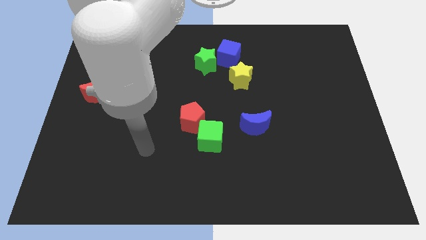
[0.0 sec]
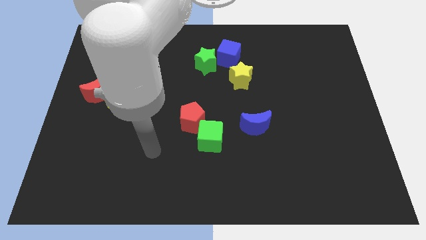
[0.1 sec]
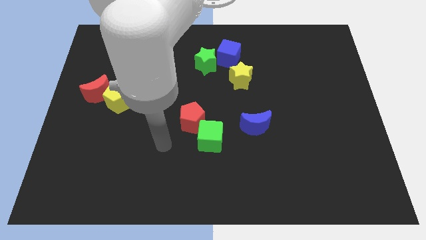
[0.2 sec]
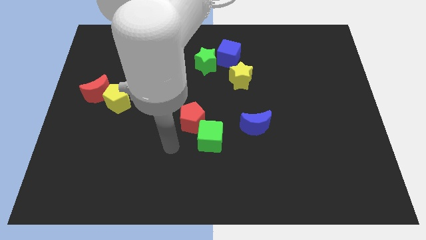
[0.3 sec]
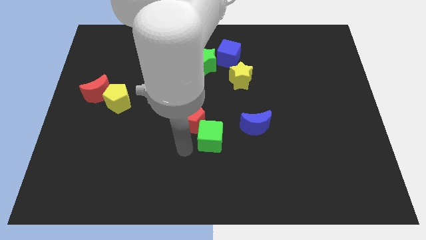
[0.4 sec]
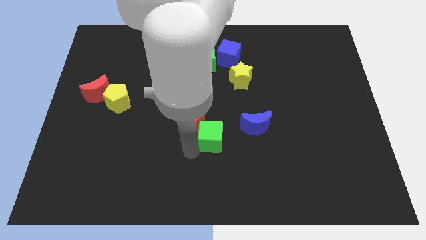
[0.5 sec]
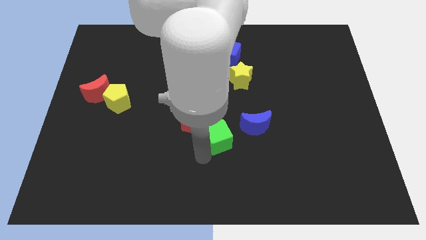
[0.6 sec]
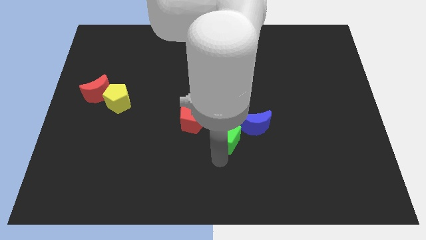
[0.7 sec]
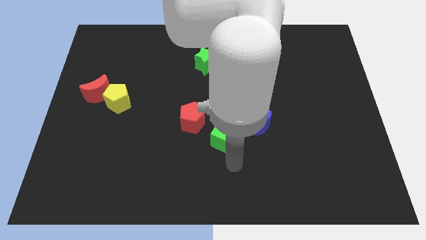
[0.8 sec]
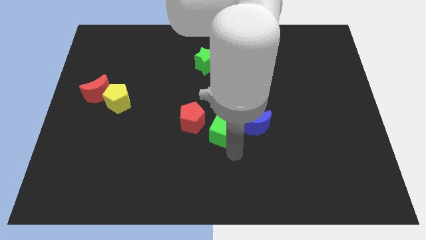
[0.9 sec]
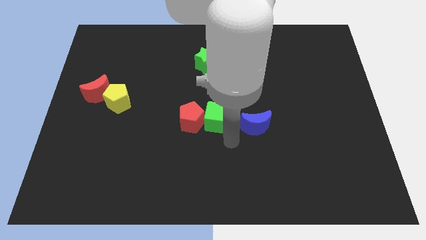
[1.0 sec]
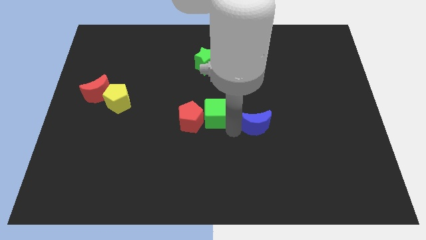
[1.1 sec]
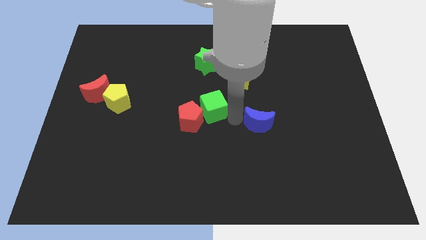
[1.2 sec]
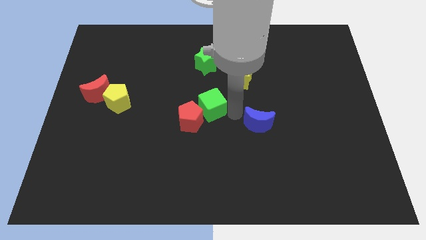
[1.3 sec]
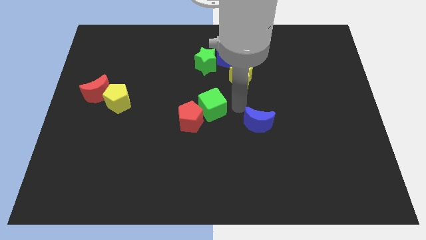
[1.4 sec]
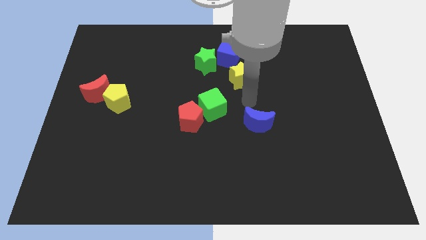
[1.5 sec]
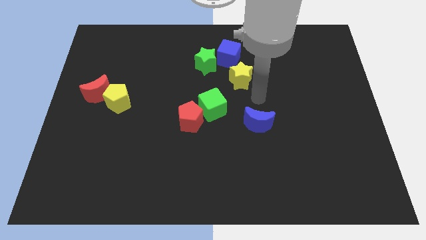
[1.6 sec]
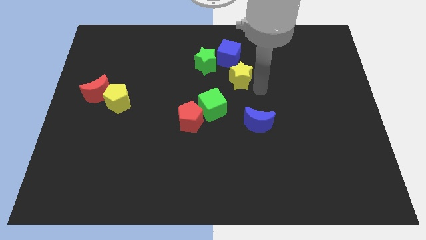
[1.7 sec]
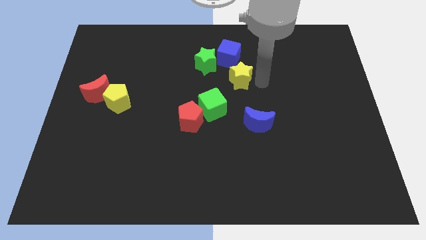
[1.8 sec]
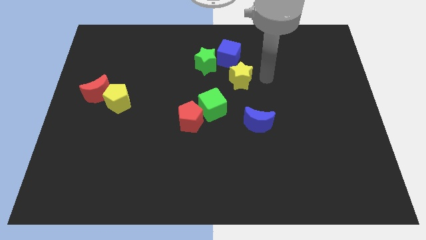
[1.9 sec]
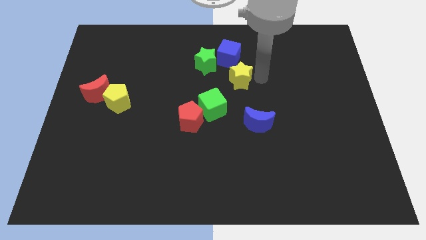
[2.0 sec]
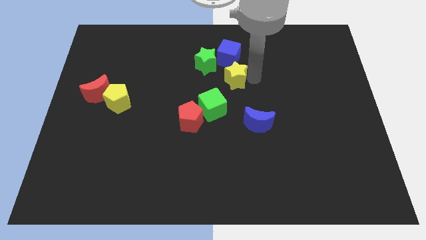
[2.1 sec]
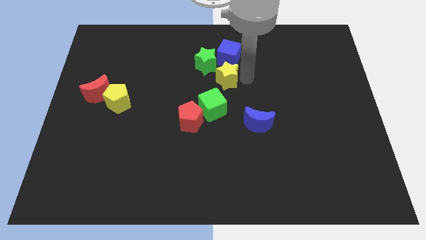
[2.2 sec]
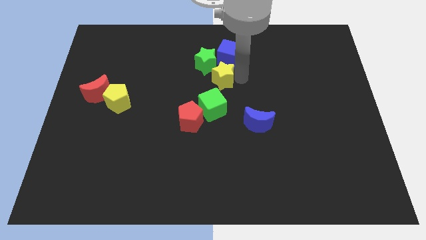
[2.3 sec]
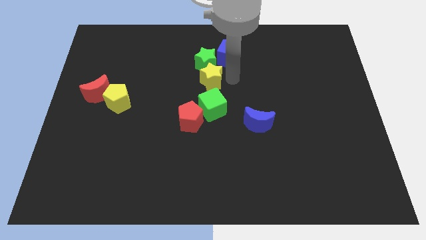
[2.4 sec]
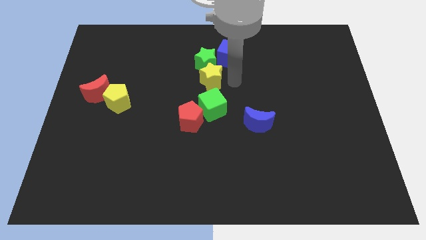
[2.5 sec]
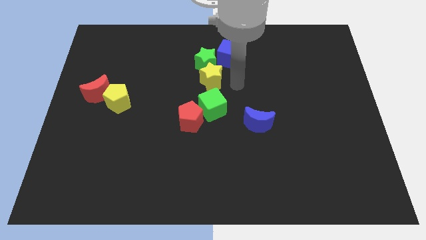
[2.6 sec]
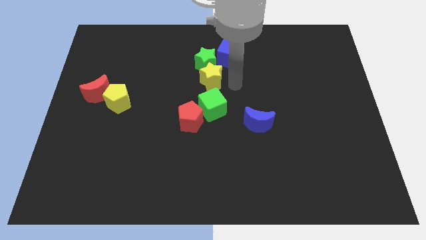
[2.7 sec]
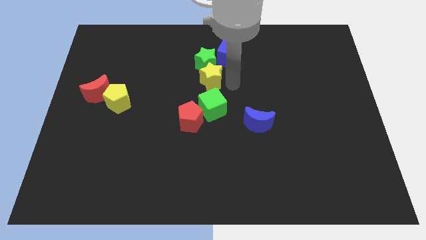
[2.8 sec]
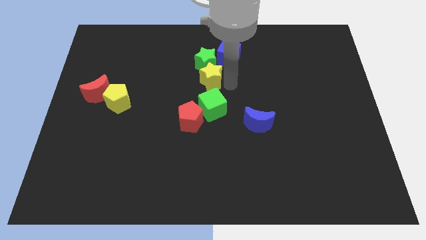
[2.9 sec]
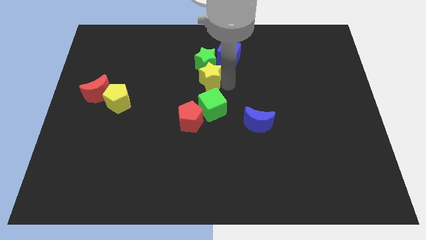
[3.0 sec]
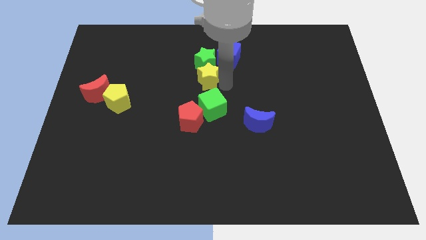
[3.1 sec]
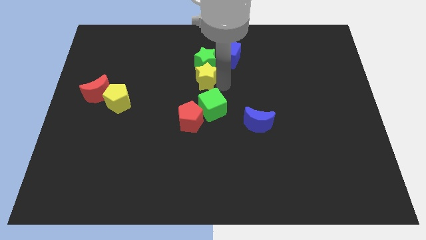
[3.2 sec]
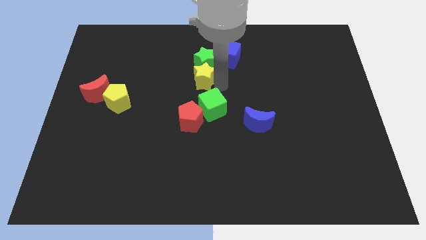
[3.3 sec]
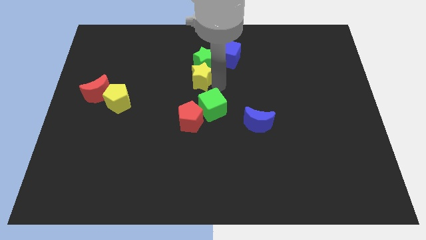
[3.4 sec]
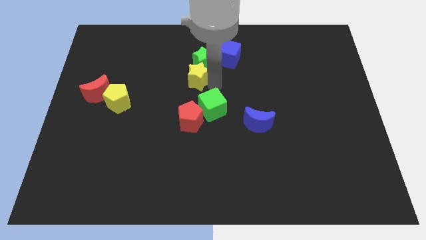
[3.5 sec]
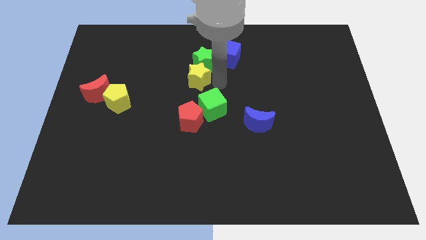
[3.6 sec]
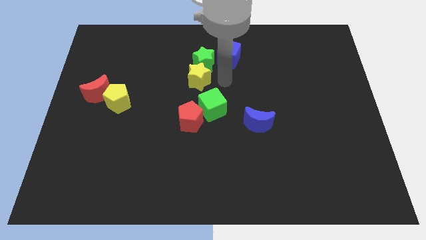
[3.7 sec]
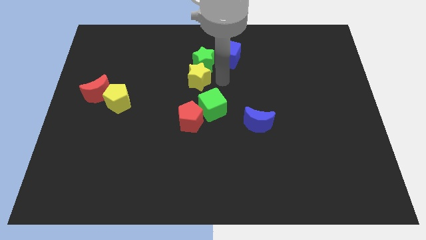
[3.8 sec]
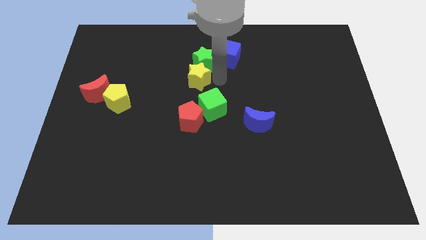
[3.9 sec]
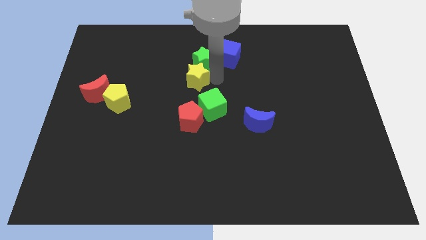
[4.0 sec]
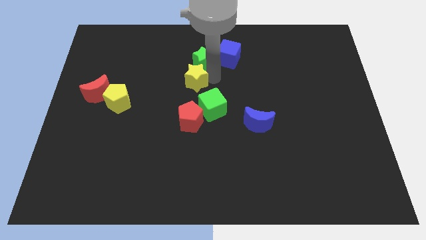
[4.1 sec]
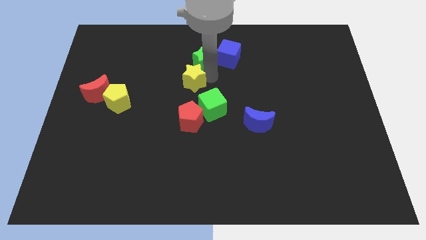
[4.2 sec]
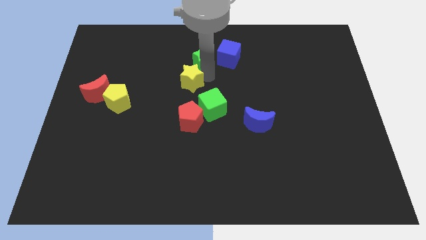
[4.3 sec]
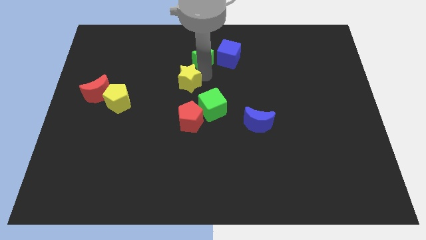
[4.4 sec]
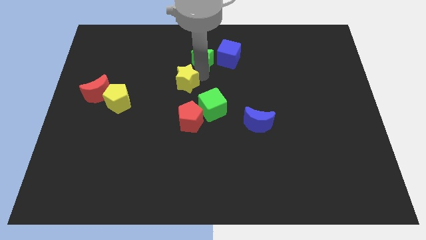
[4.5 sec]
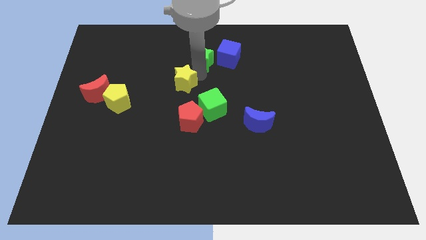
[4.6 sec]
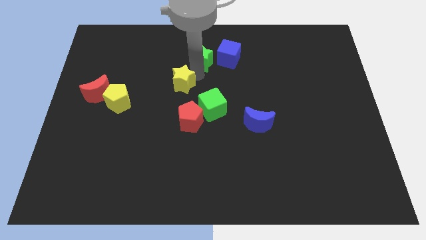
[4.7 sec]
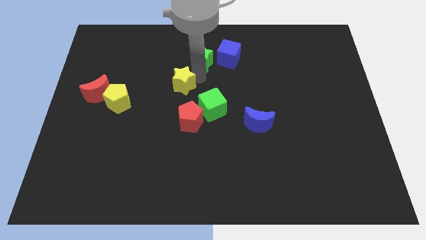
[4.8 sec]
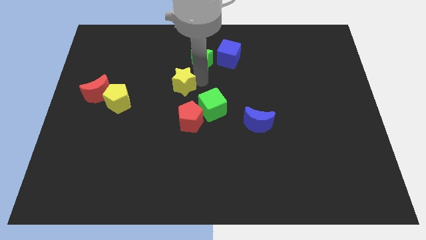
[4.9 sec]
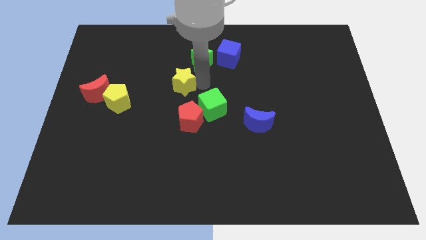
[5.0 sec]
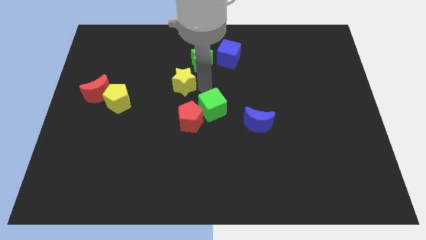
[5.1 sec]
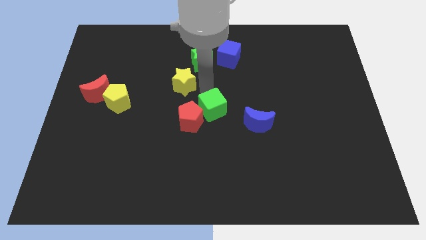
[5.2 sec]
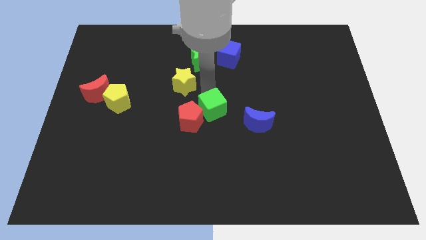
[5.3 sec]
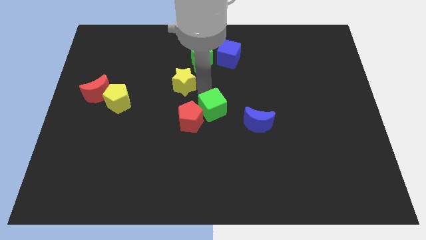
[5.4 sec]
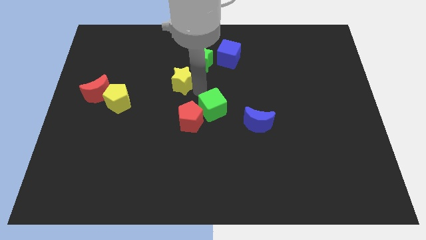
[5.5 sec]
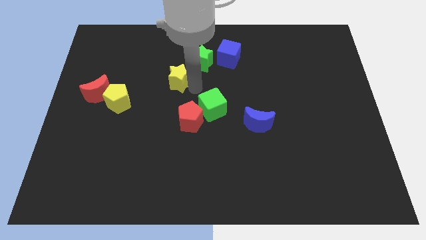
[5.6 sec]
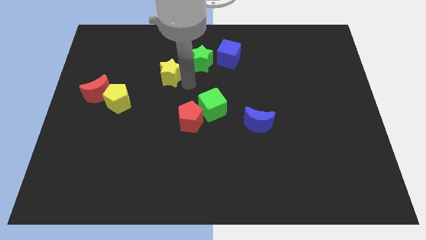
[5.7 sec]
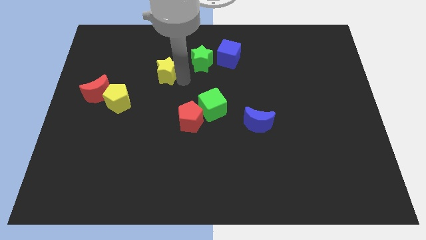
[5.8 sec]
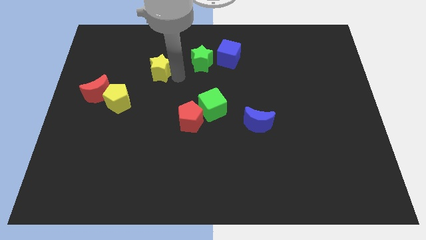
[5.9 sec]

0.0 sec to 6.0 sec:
slide the yellow star left

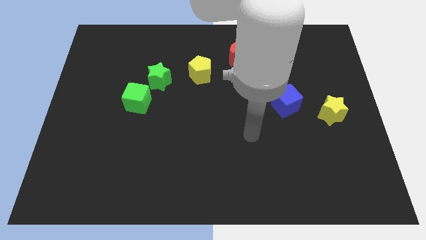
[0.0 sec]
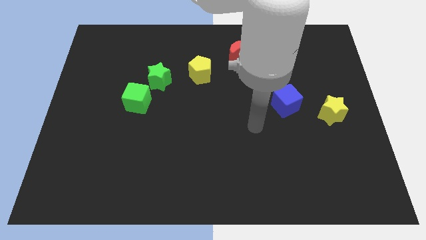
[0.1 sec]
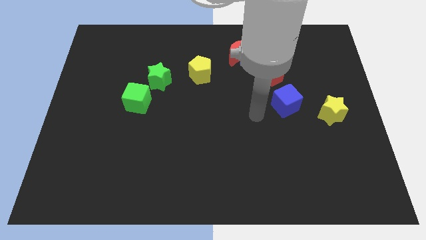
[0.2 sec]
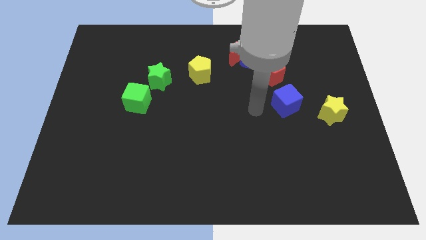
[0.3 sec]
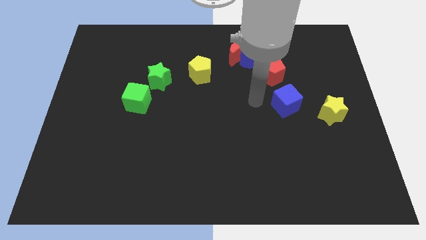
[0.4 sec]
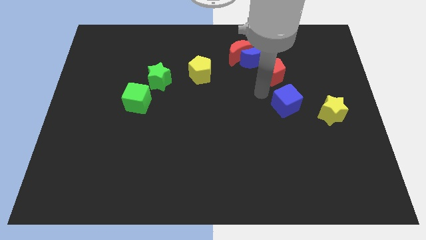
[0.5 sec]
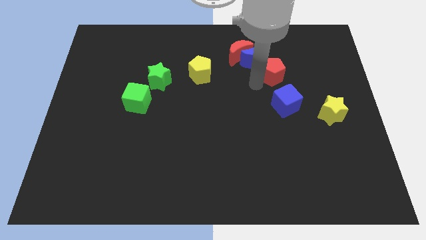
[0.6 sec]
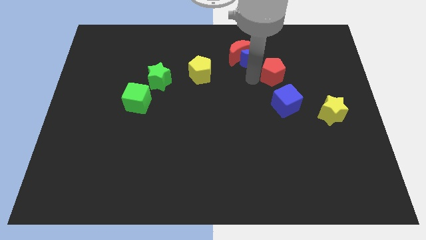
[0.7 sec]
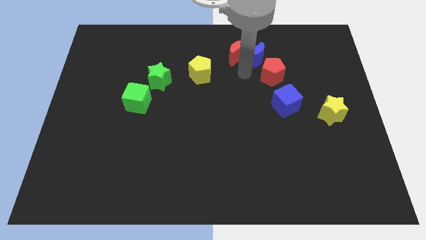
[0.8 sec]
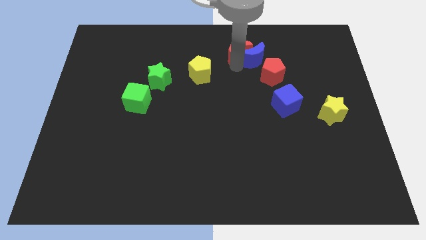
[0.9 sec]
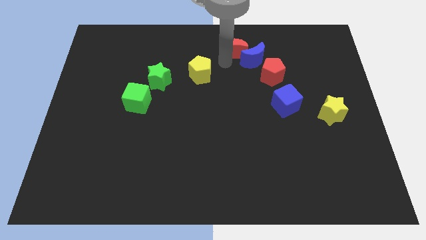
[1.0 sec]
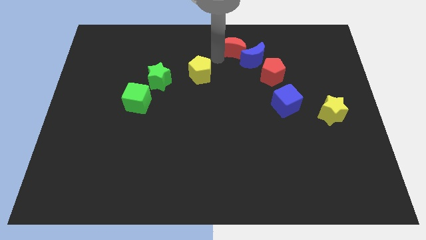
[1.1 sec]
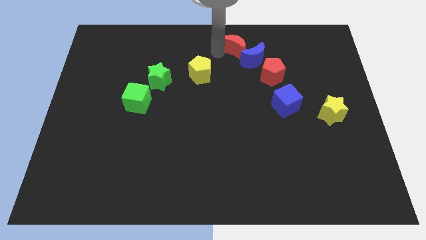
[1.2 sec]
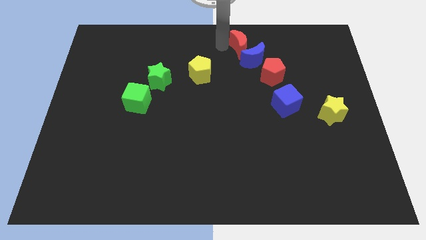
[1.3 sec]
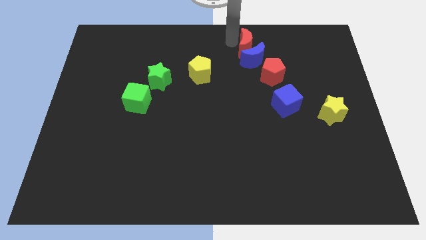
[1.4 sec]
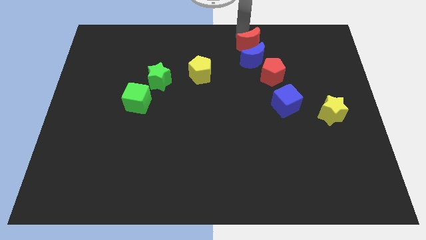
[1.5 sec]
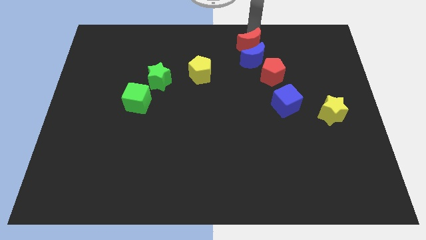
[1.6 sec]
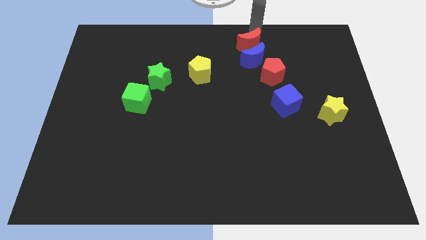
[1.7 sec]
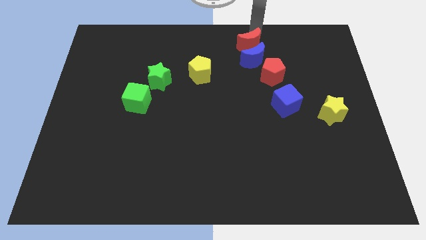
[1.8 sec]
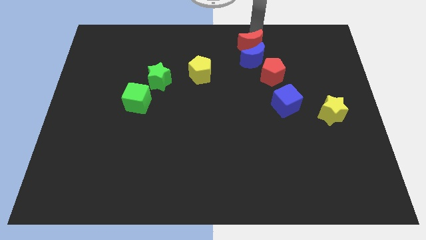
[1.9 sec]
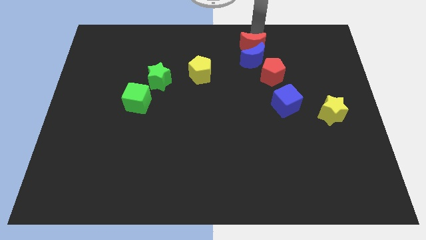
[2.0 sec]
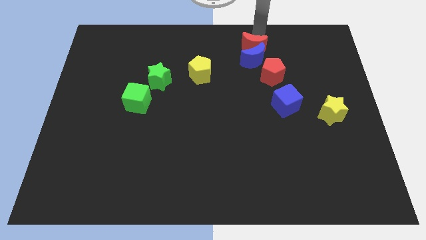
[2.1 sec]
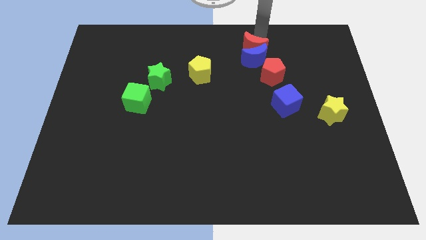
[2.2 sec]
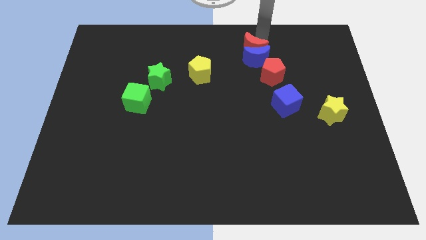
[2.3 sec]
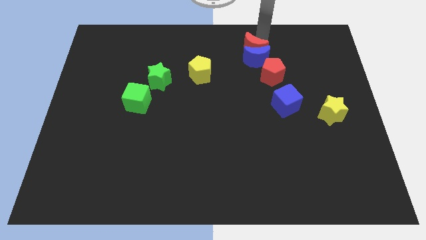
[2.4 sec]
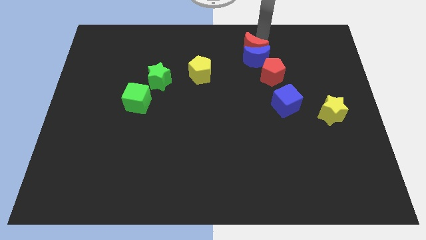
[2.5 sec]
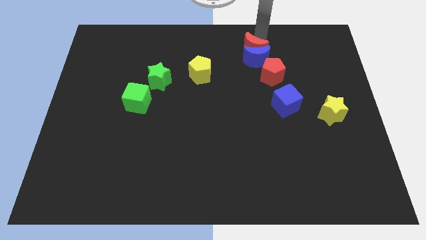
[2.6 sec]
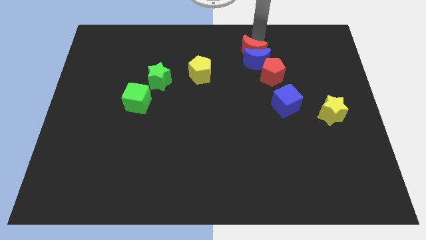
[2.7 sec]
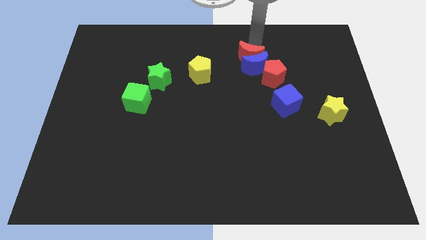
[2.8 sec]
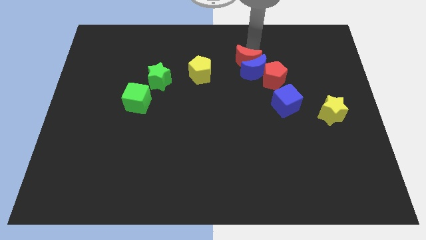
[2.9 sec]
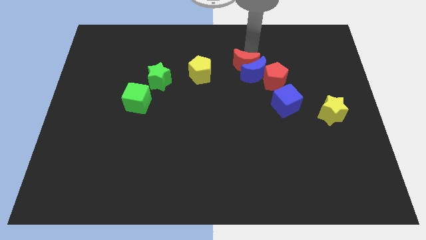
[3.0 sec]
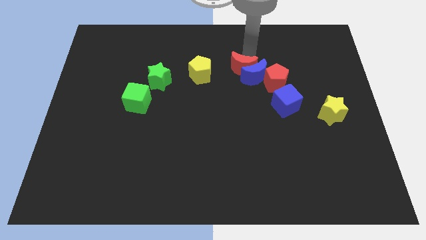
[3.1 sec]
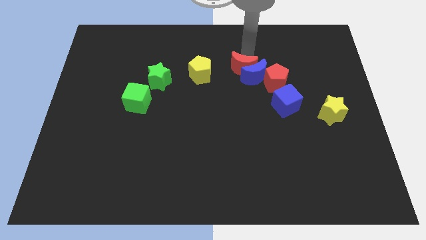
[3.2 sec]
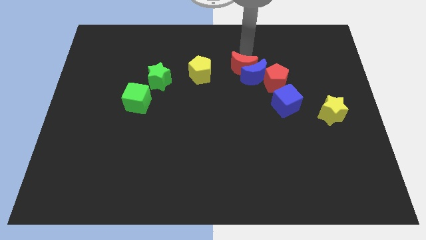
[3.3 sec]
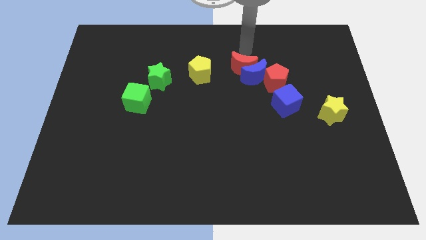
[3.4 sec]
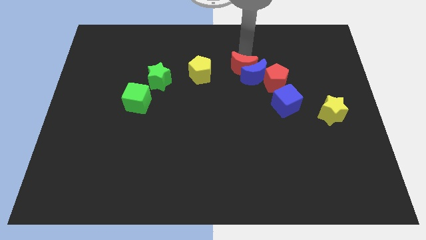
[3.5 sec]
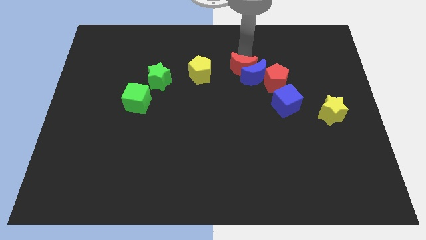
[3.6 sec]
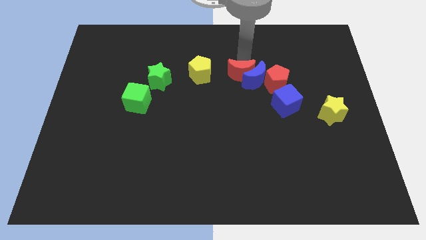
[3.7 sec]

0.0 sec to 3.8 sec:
slightly move the red moon downwards
